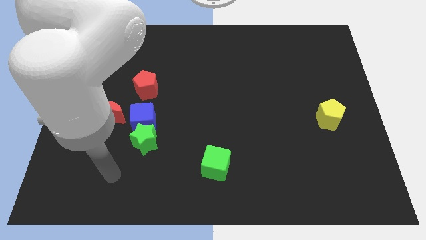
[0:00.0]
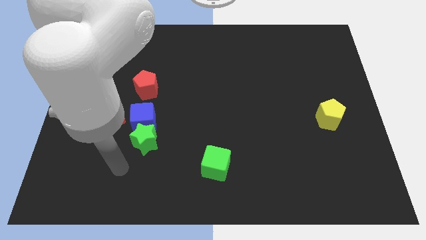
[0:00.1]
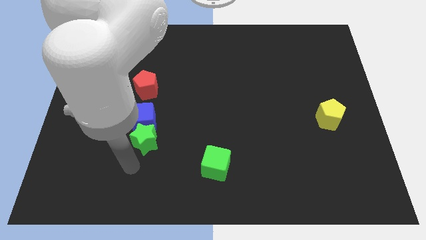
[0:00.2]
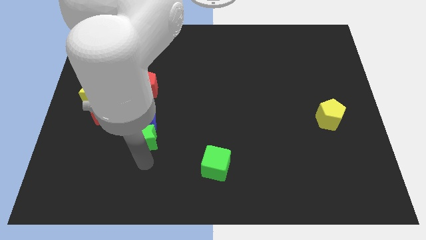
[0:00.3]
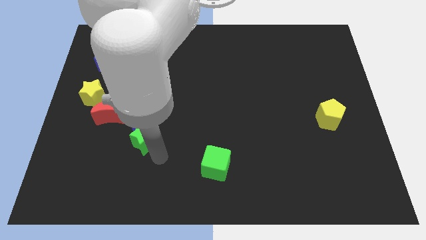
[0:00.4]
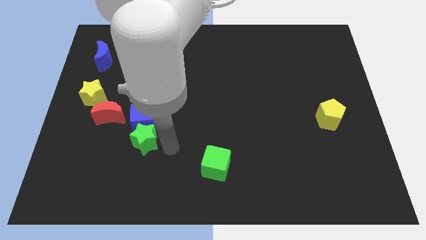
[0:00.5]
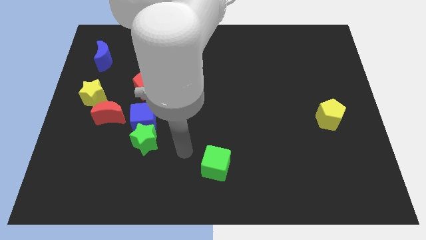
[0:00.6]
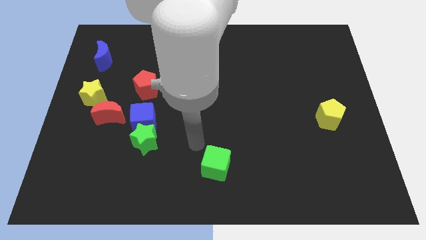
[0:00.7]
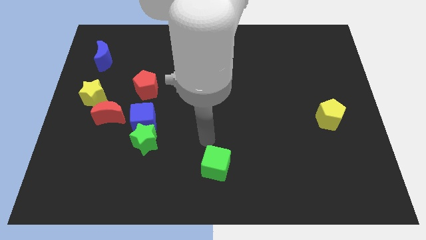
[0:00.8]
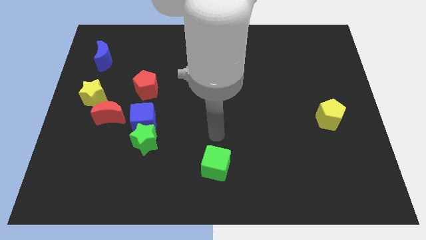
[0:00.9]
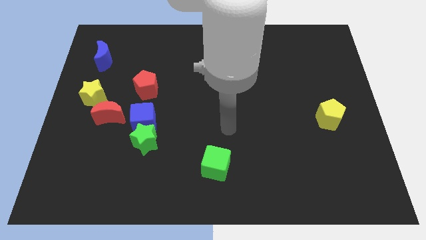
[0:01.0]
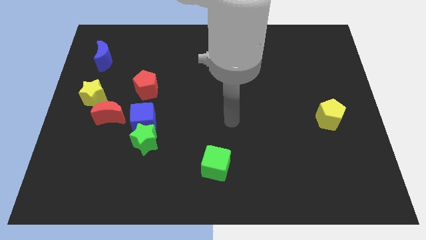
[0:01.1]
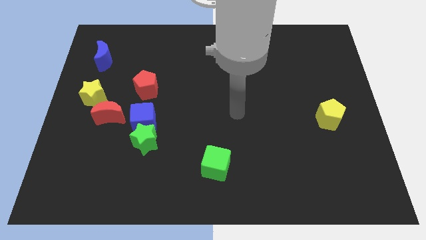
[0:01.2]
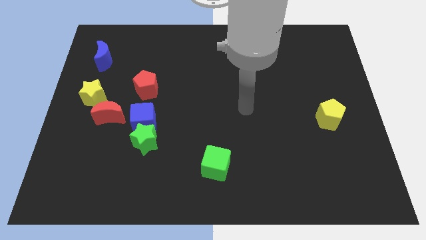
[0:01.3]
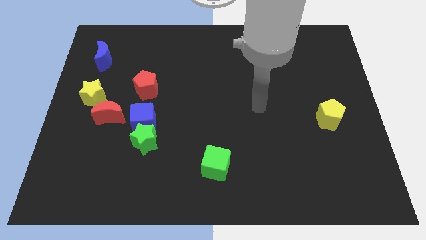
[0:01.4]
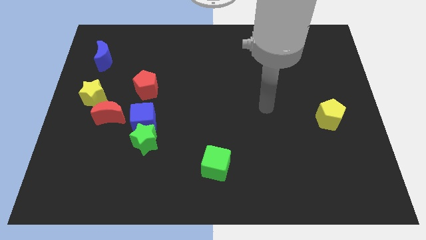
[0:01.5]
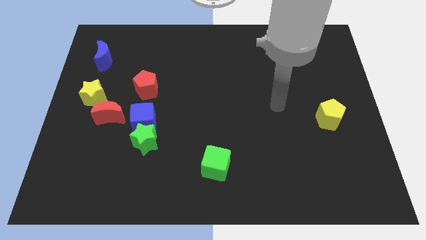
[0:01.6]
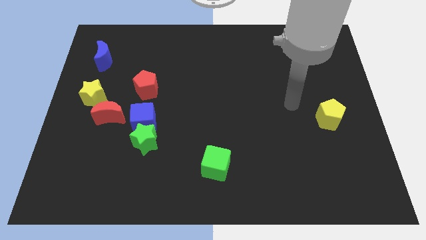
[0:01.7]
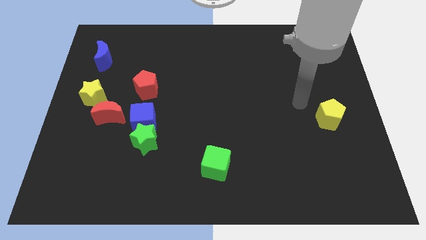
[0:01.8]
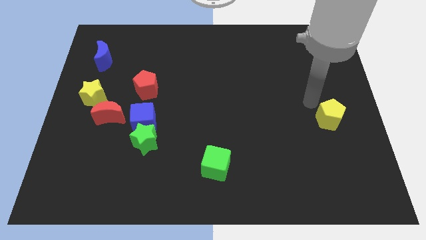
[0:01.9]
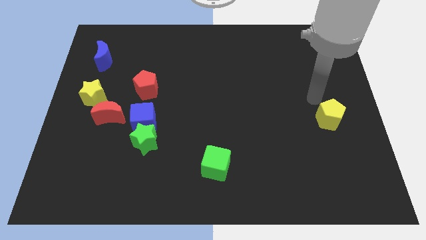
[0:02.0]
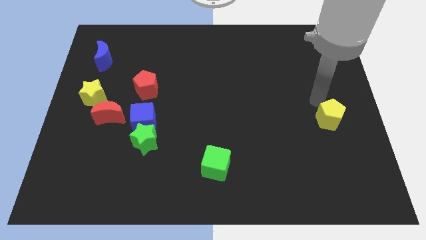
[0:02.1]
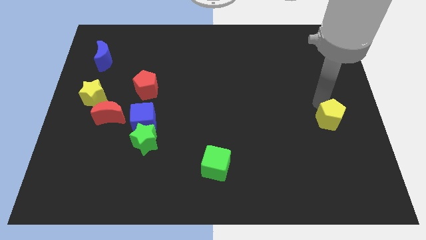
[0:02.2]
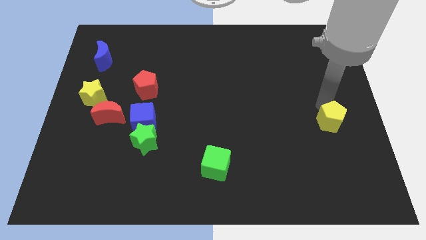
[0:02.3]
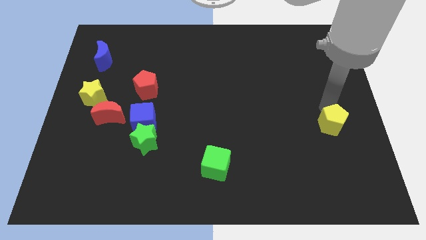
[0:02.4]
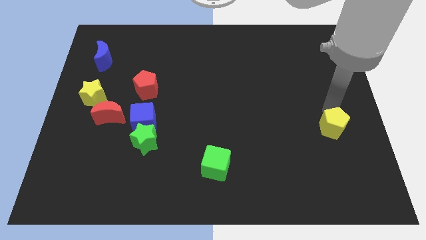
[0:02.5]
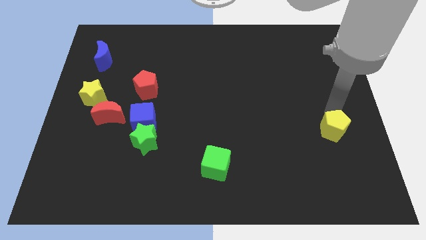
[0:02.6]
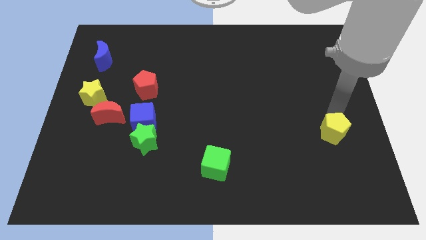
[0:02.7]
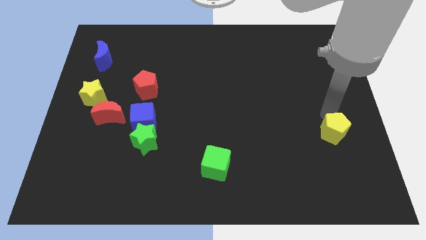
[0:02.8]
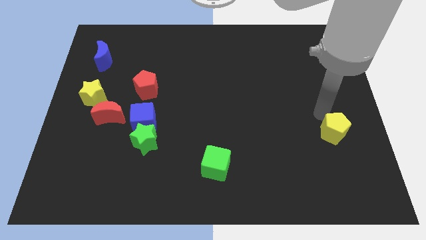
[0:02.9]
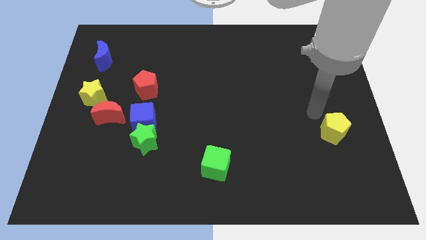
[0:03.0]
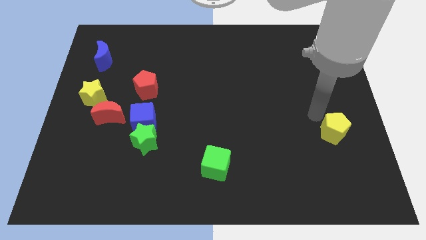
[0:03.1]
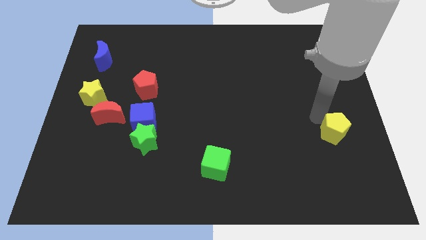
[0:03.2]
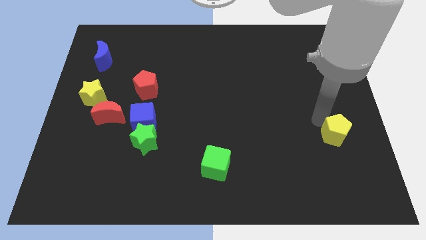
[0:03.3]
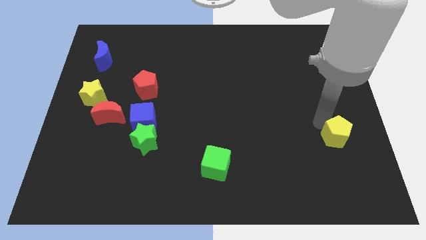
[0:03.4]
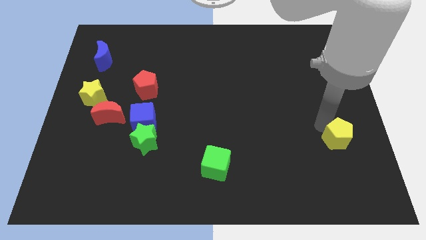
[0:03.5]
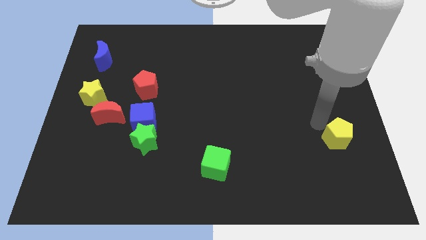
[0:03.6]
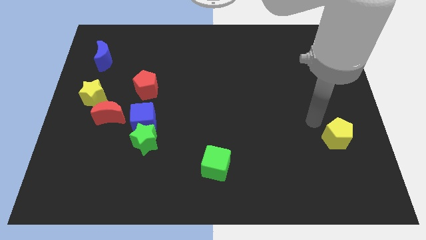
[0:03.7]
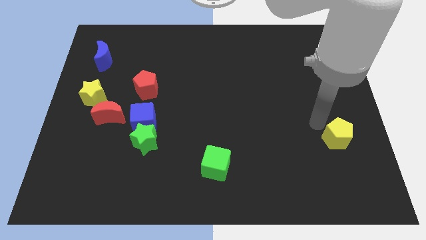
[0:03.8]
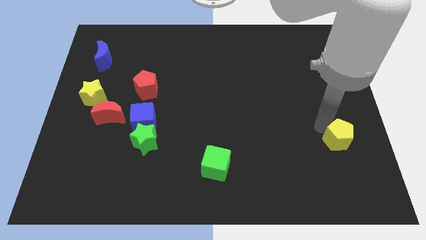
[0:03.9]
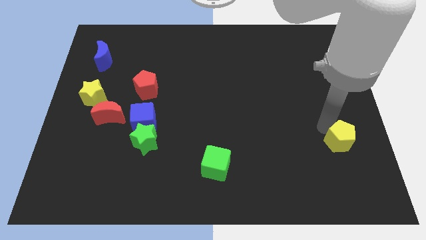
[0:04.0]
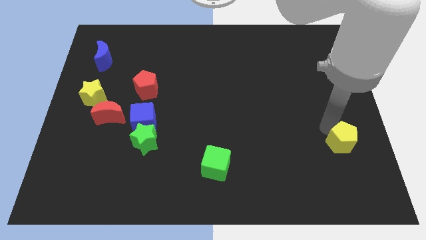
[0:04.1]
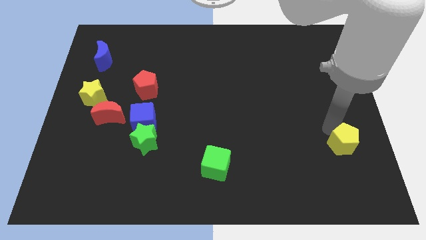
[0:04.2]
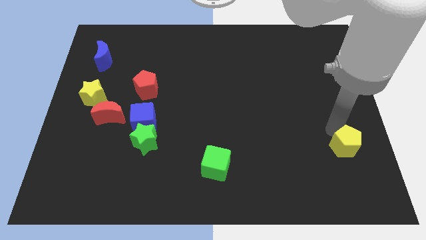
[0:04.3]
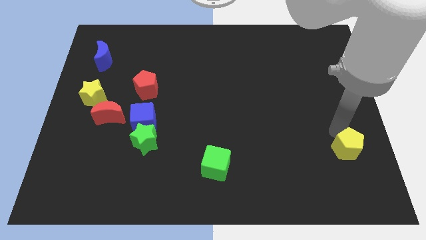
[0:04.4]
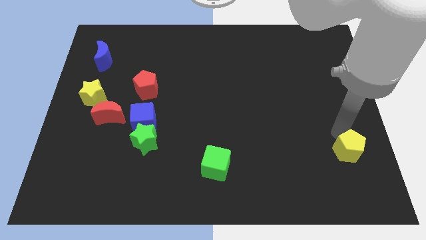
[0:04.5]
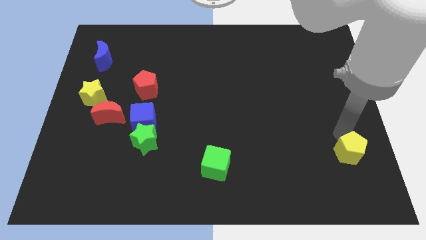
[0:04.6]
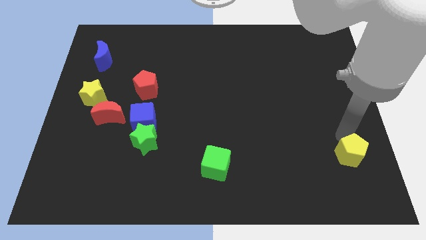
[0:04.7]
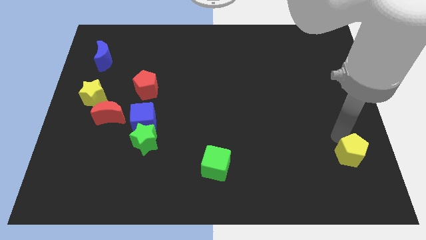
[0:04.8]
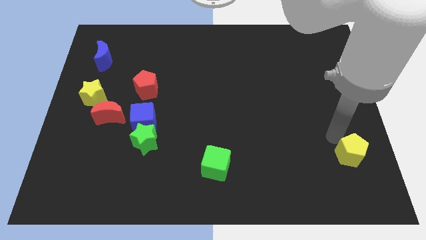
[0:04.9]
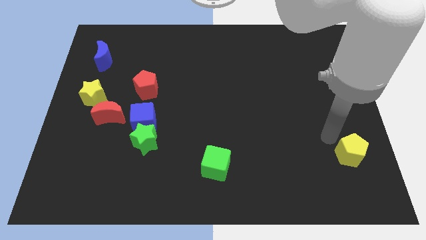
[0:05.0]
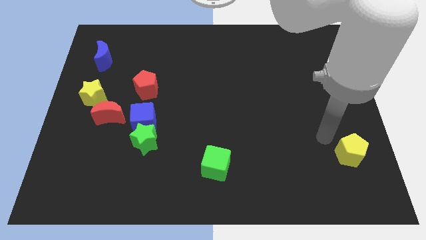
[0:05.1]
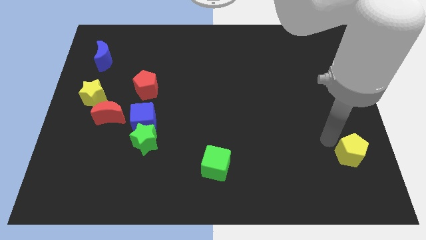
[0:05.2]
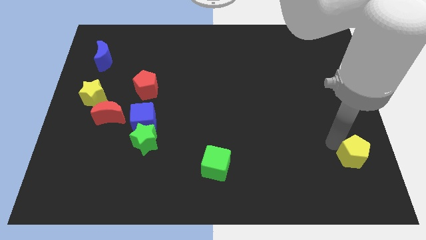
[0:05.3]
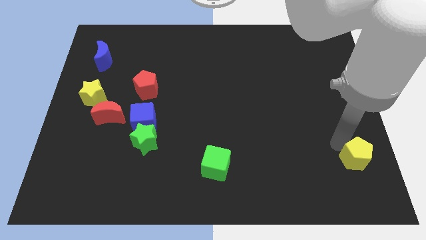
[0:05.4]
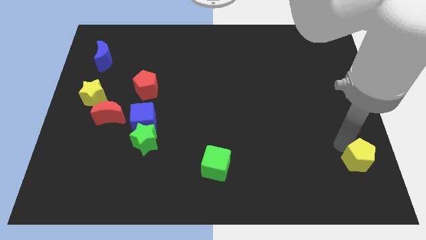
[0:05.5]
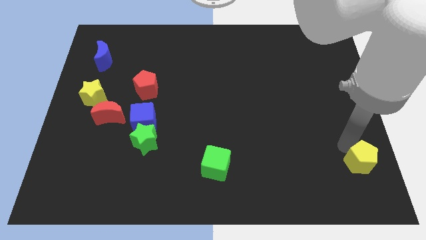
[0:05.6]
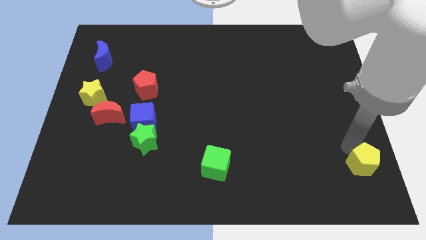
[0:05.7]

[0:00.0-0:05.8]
push the yellow pentagon to the bottom right corner
